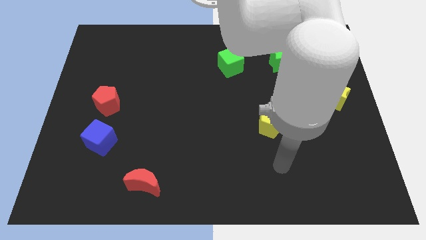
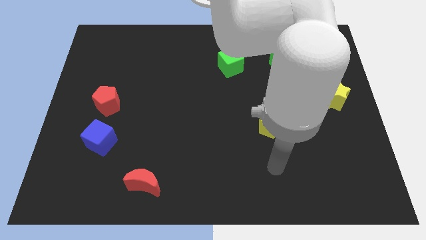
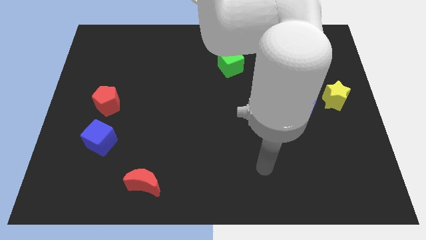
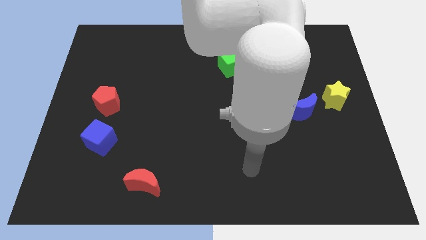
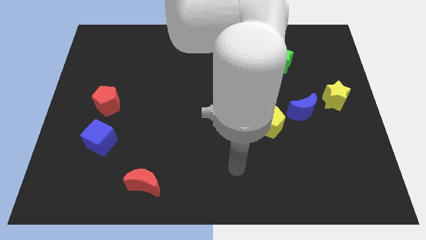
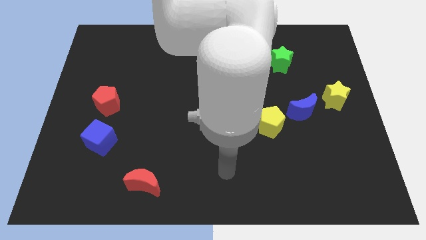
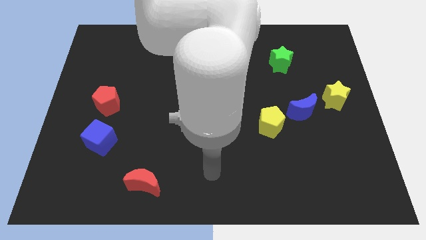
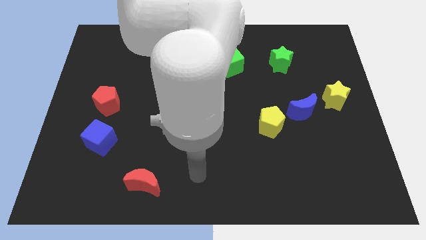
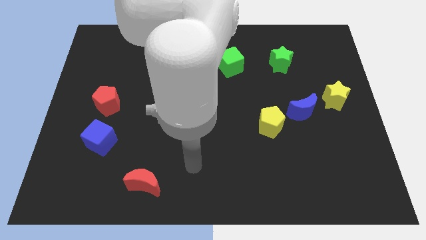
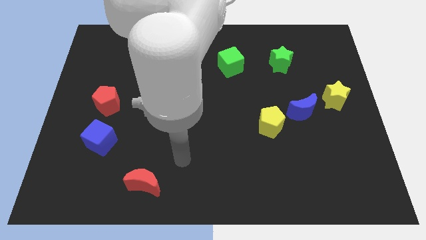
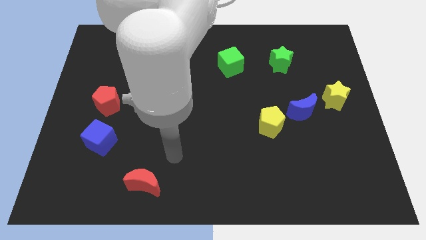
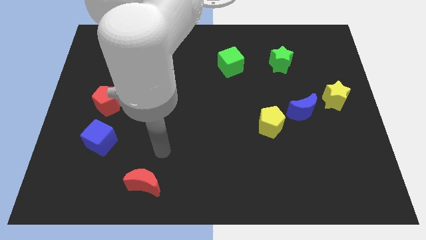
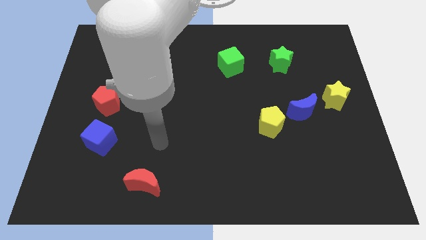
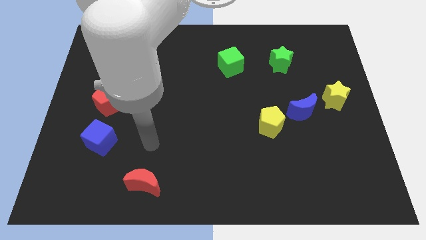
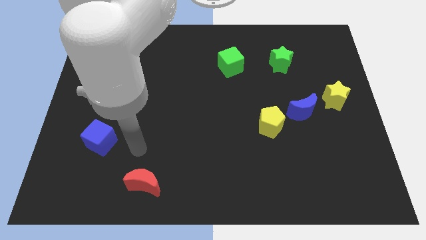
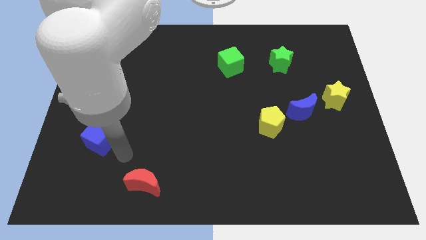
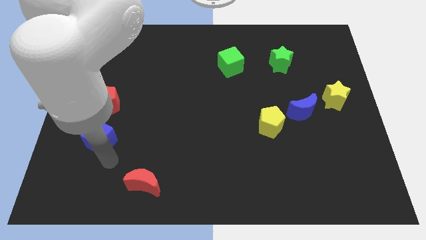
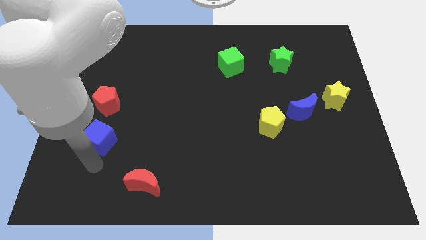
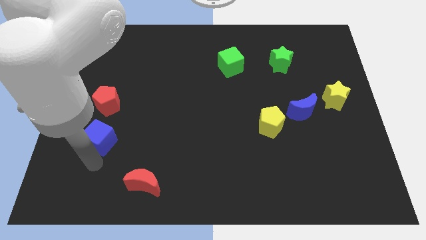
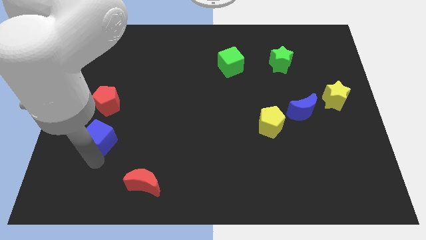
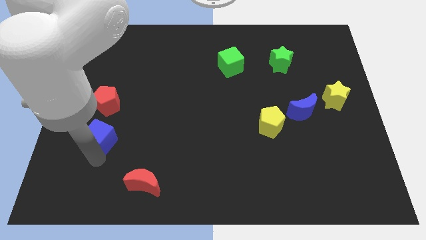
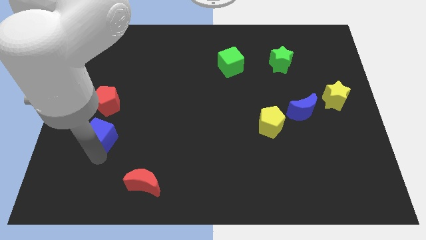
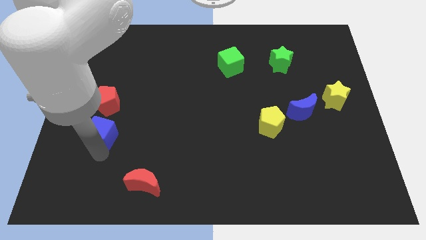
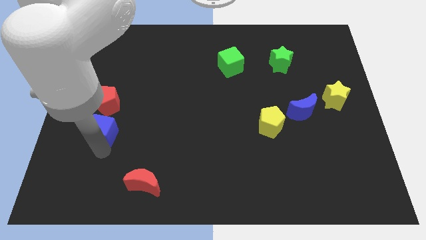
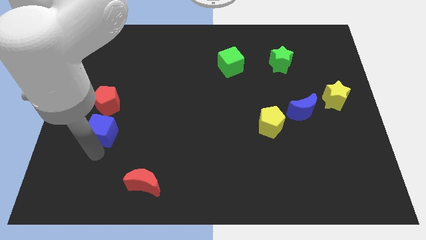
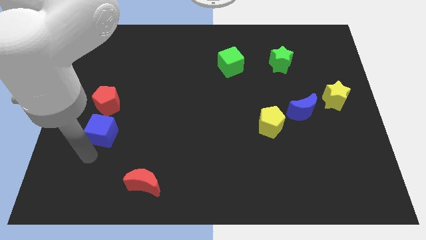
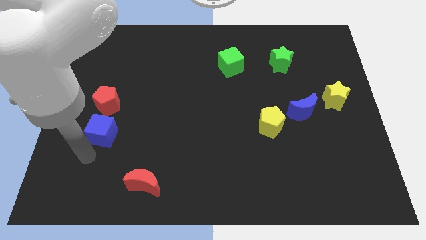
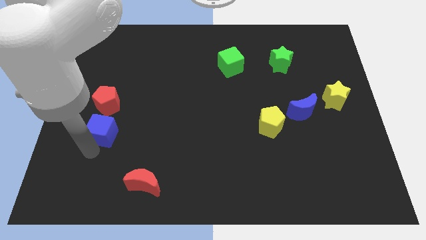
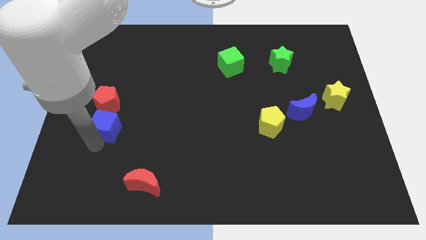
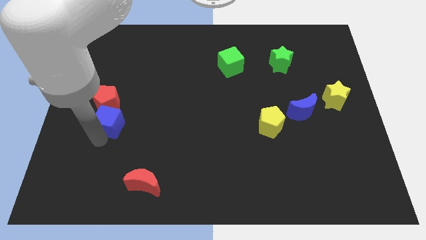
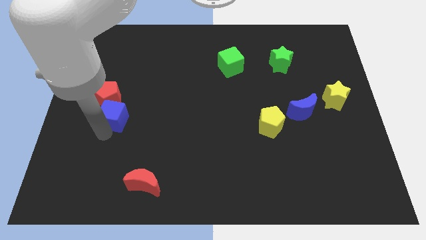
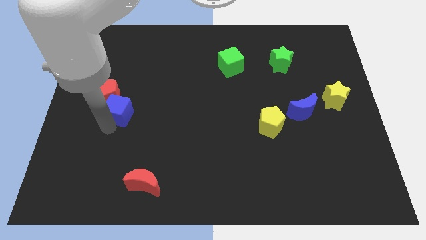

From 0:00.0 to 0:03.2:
move the blue cube upwards a bit

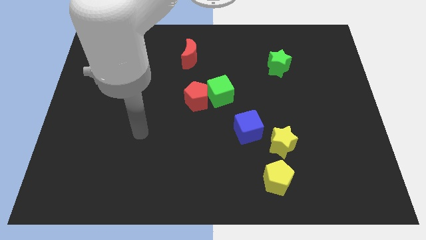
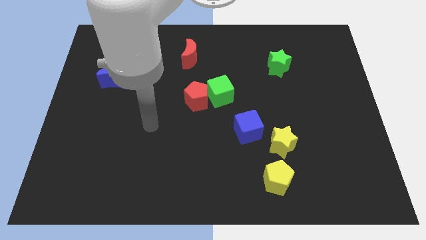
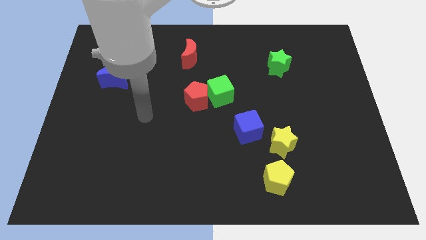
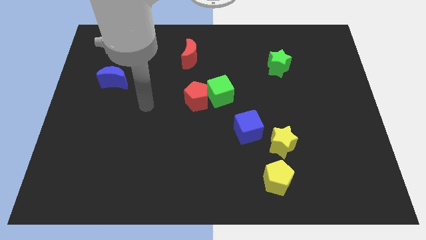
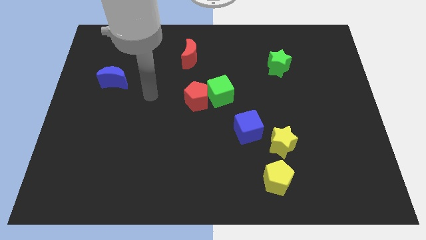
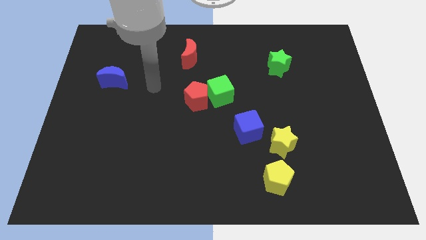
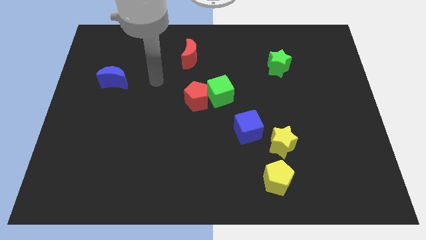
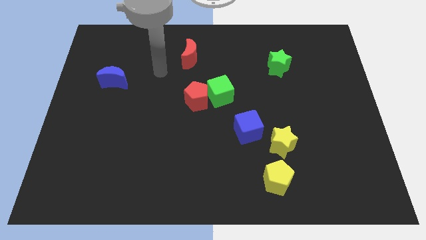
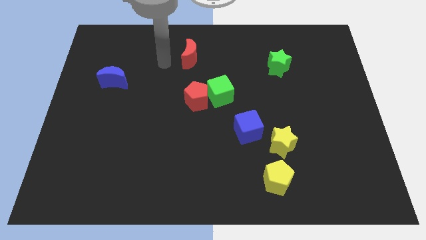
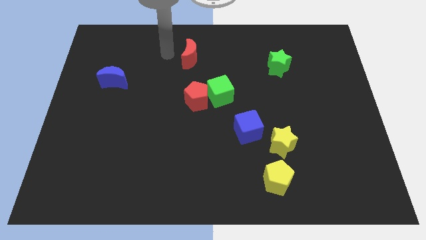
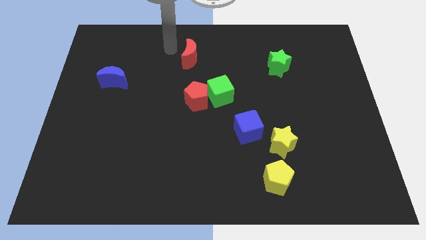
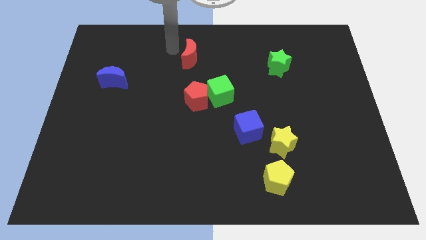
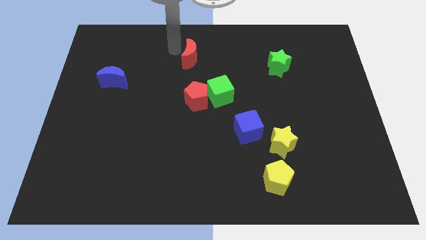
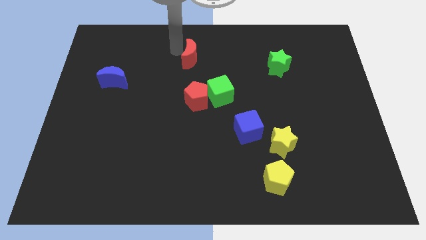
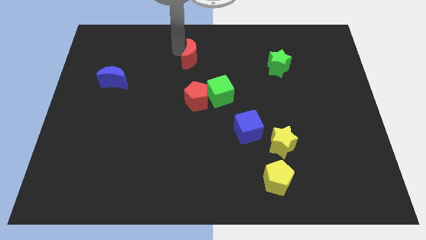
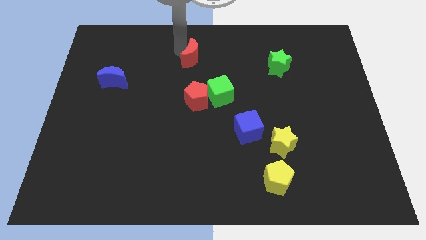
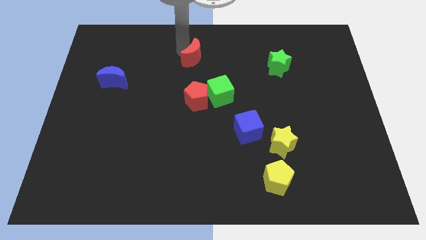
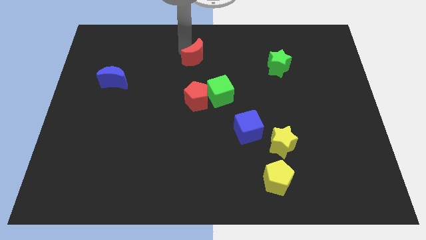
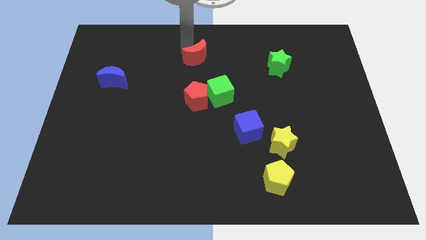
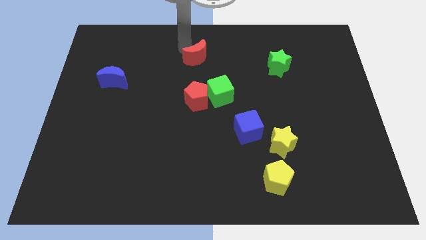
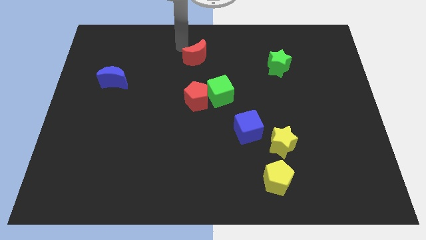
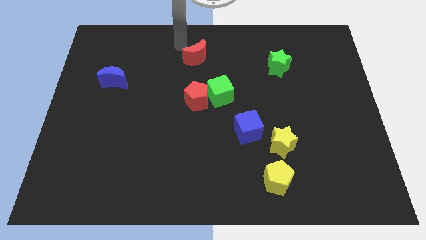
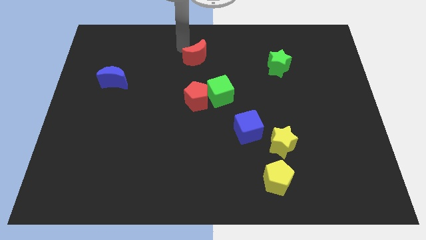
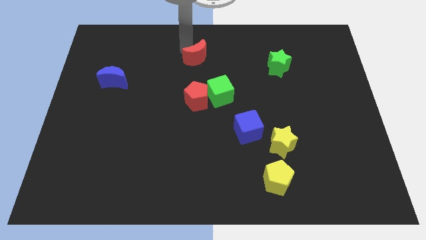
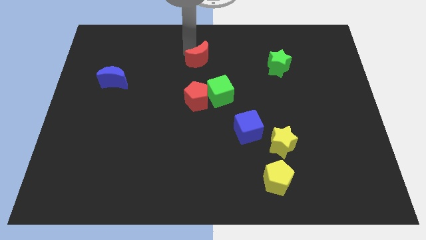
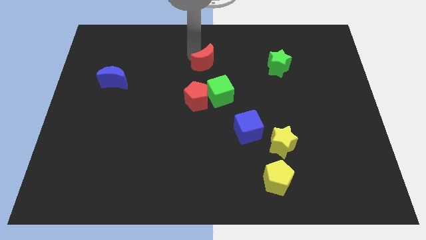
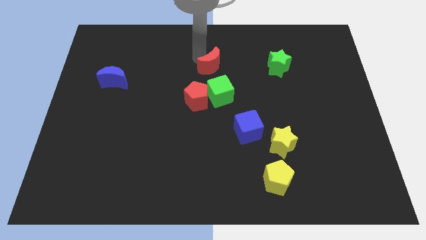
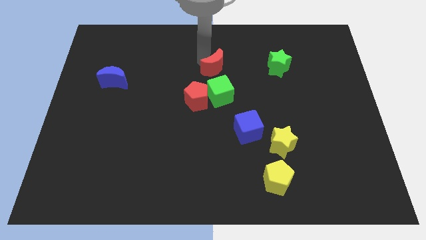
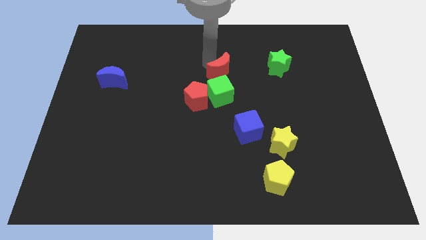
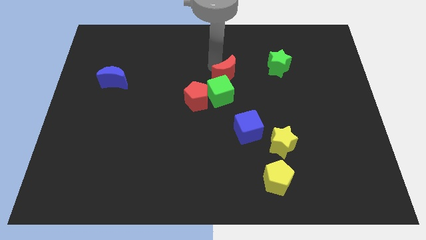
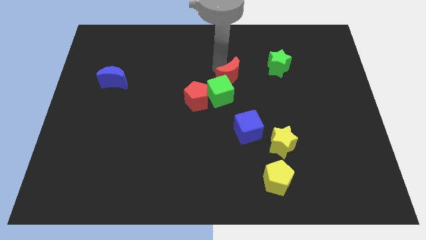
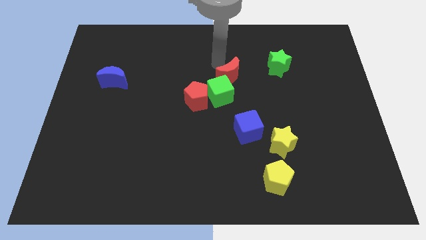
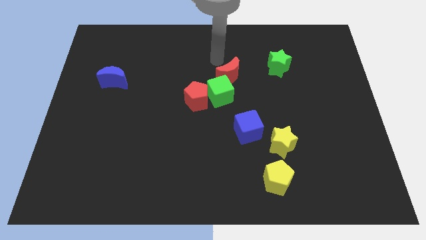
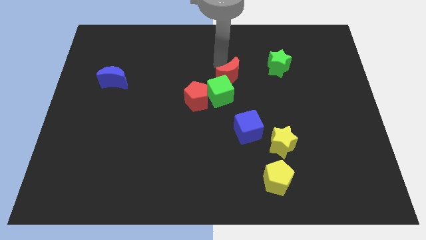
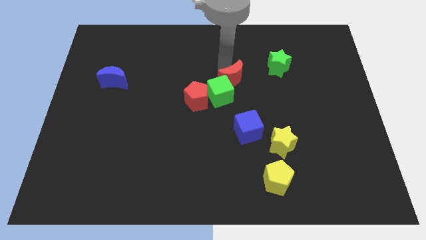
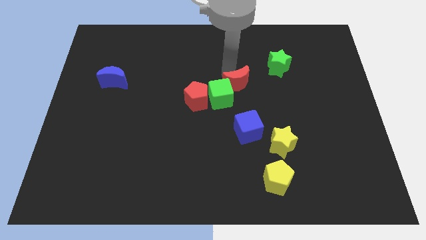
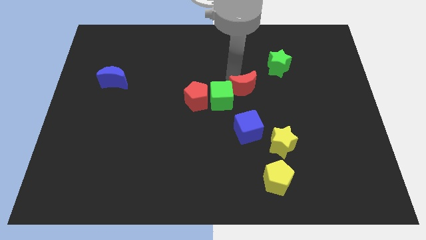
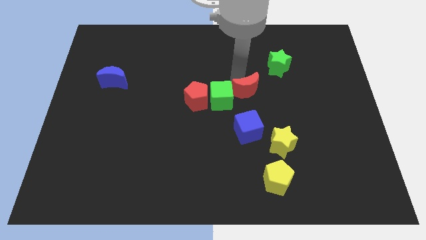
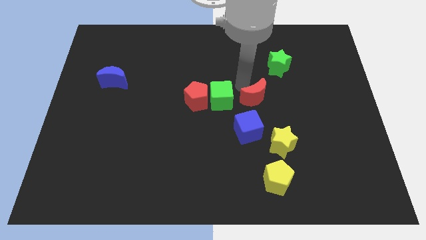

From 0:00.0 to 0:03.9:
slide the red moon downwards and then right

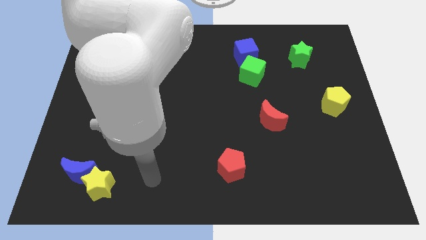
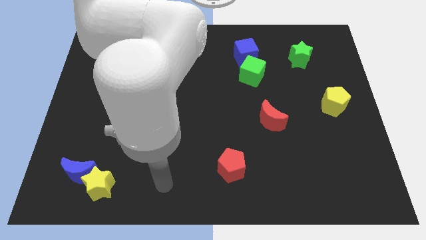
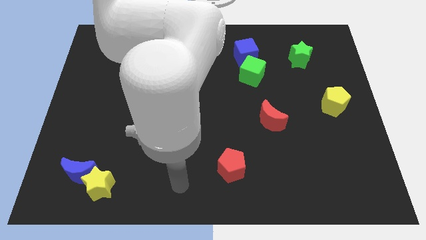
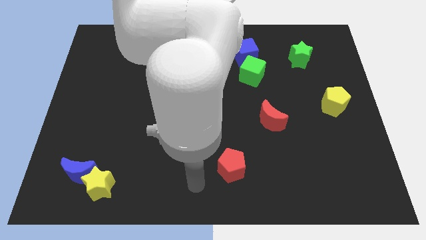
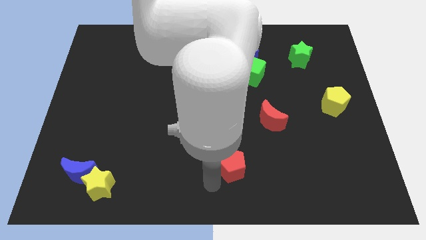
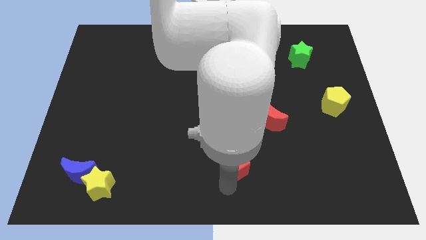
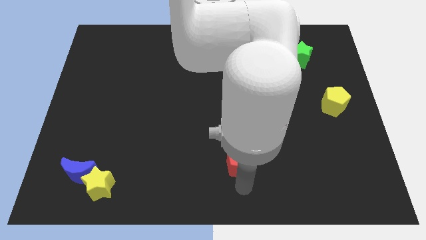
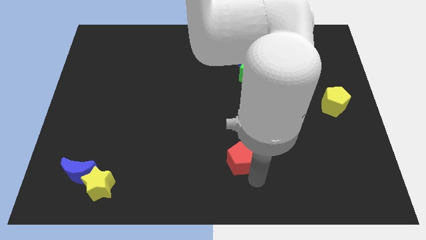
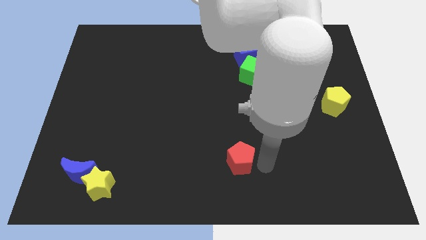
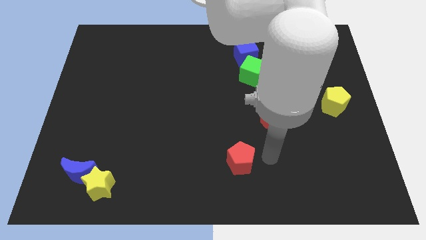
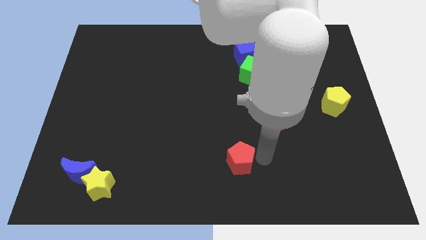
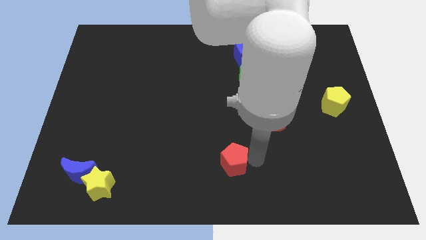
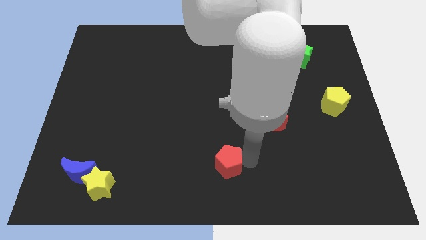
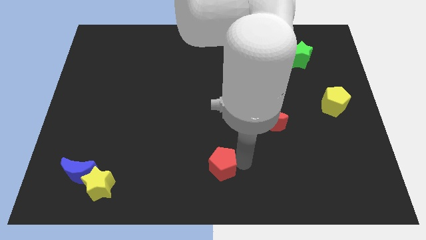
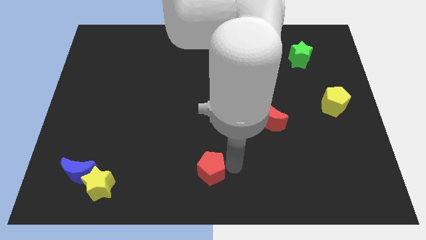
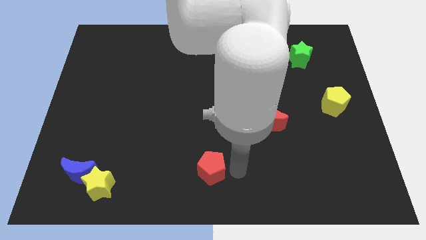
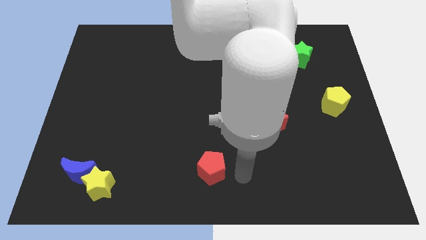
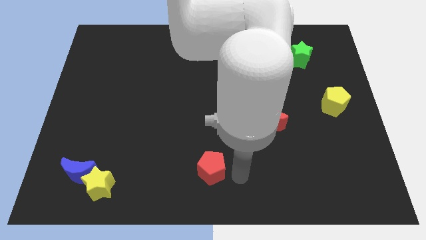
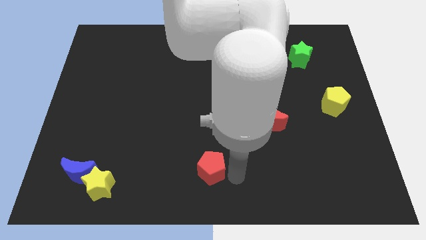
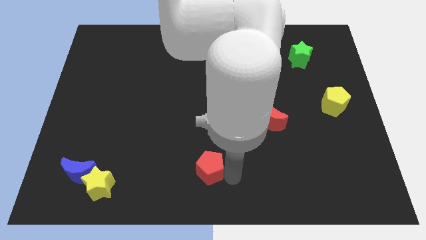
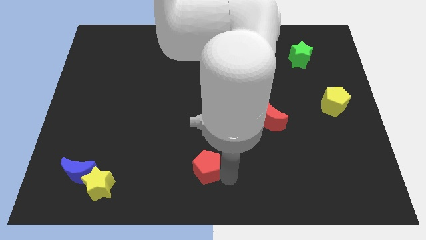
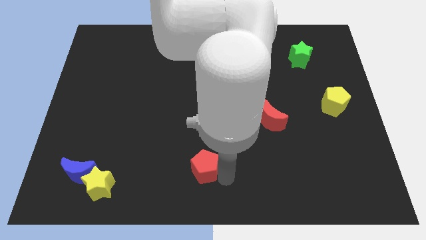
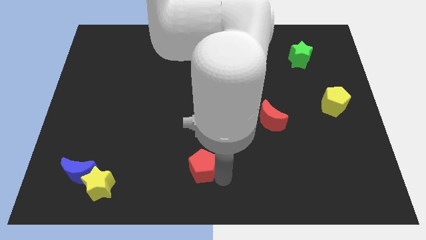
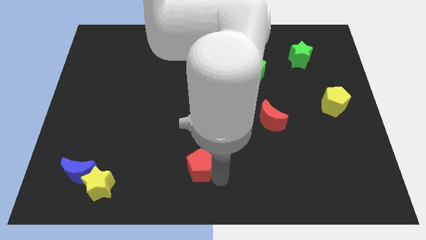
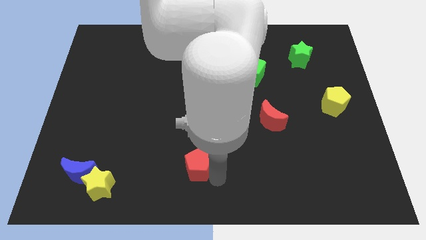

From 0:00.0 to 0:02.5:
slightly move the red pentagon left
